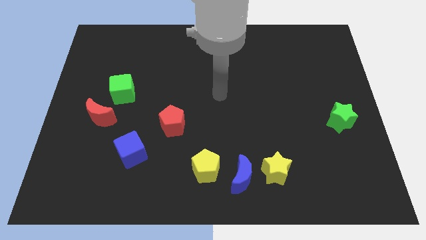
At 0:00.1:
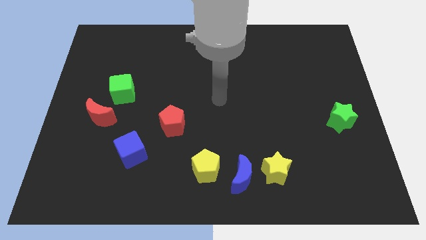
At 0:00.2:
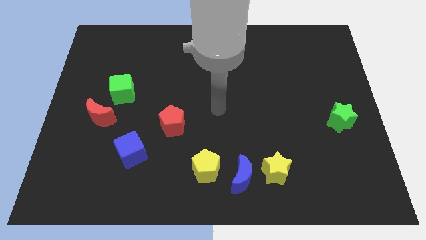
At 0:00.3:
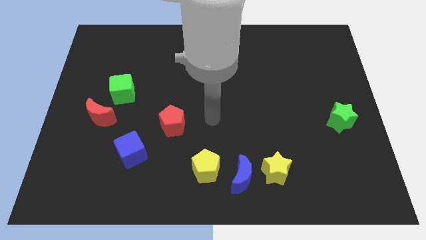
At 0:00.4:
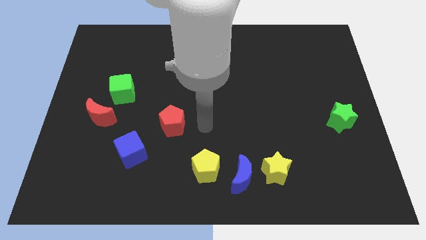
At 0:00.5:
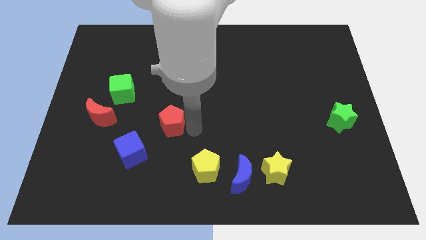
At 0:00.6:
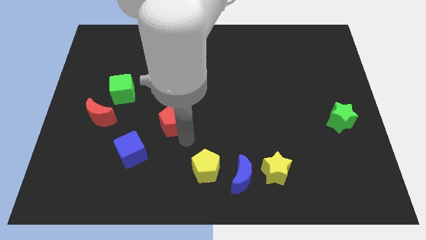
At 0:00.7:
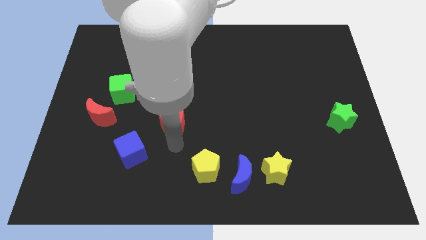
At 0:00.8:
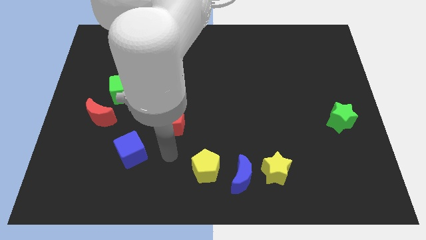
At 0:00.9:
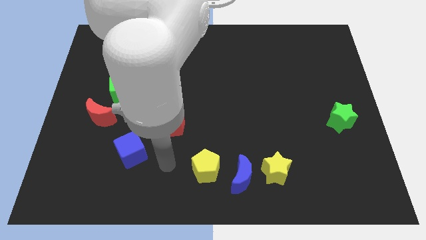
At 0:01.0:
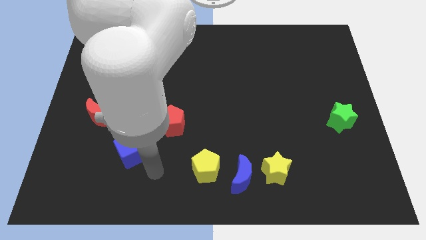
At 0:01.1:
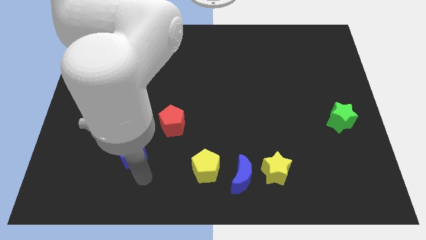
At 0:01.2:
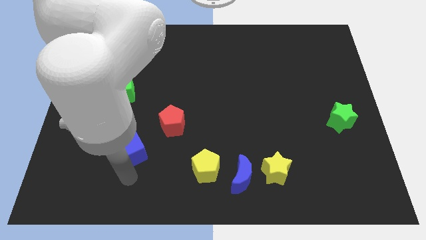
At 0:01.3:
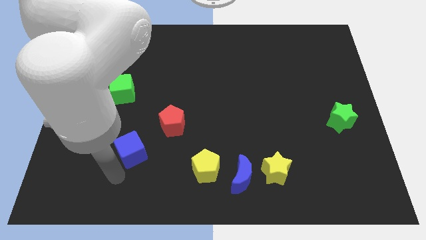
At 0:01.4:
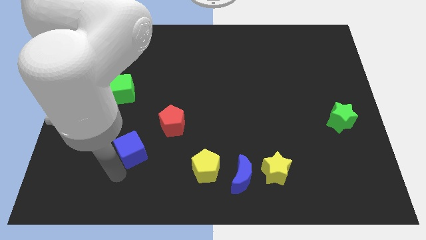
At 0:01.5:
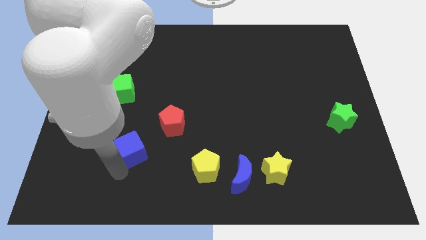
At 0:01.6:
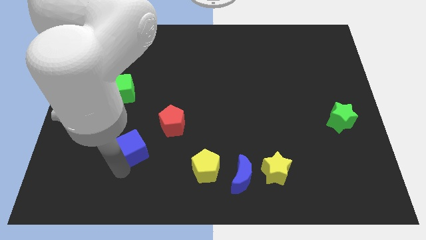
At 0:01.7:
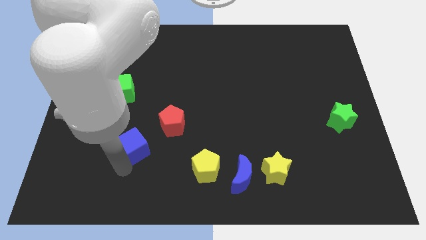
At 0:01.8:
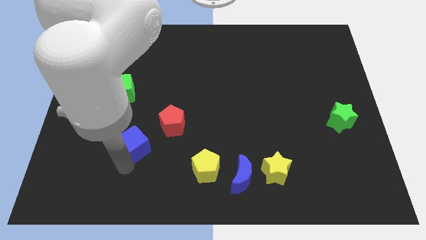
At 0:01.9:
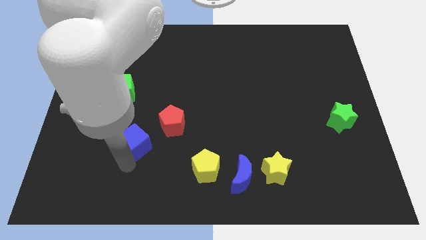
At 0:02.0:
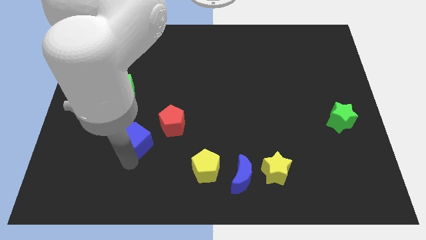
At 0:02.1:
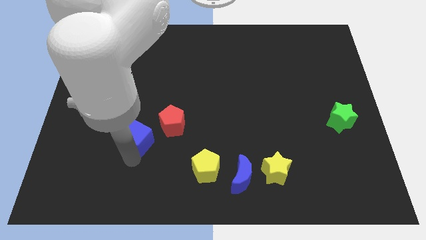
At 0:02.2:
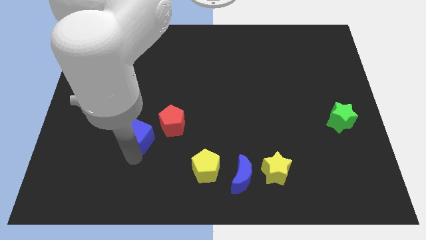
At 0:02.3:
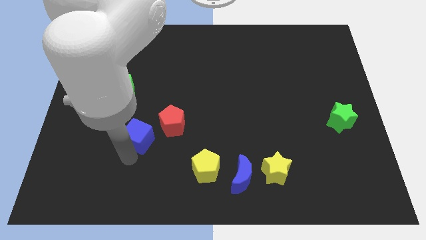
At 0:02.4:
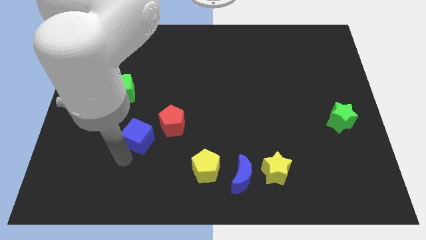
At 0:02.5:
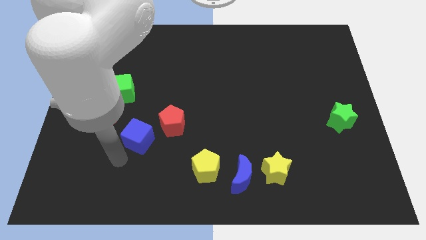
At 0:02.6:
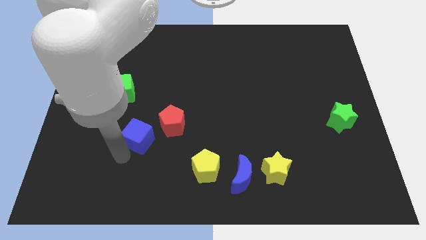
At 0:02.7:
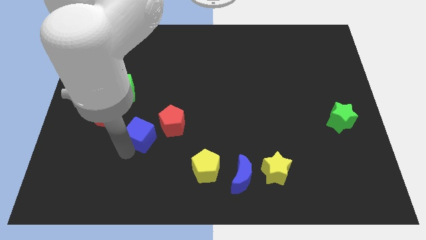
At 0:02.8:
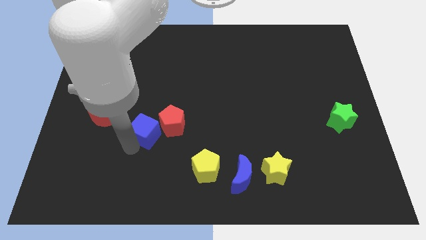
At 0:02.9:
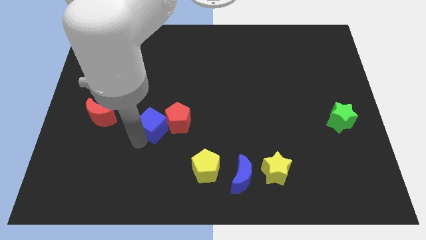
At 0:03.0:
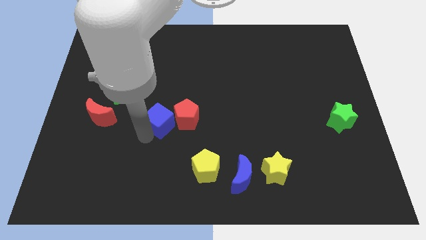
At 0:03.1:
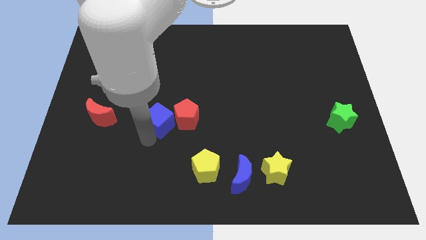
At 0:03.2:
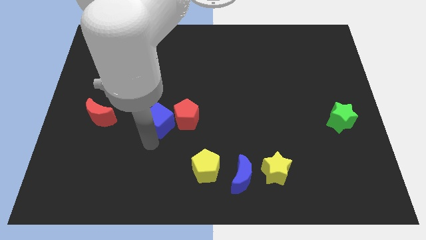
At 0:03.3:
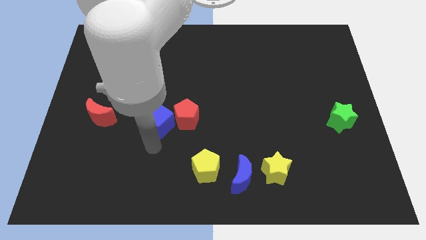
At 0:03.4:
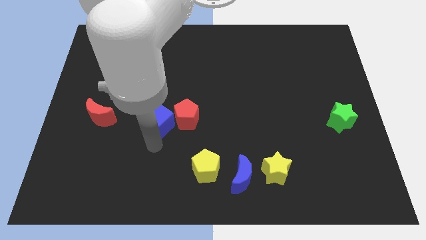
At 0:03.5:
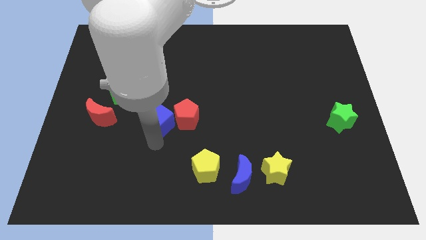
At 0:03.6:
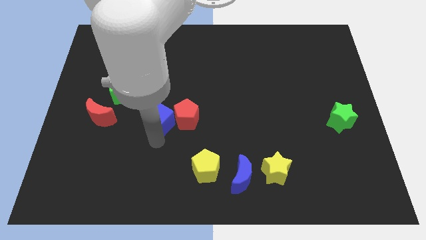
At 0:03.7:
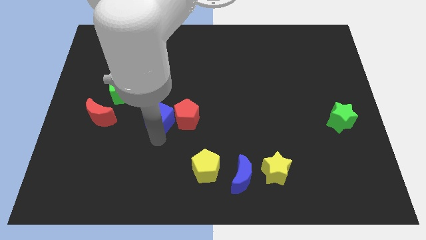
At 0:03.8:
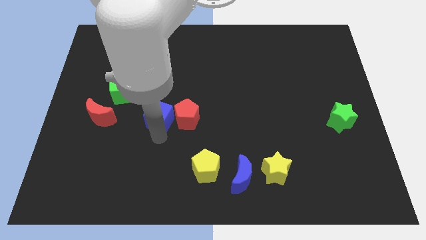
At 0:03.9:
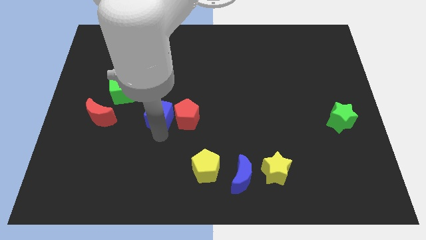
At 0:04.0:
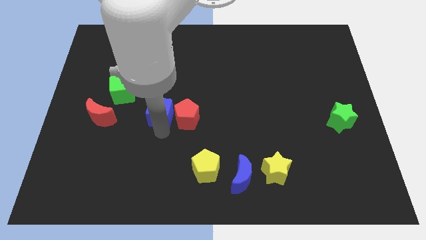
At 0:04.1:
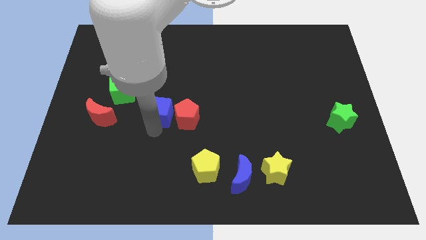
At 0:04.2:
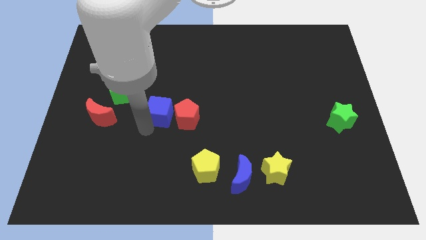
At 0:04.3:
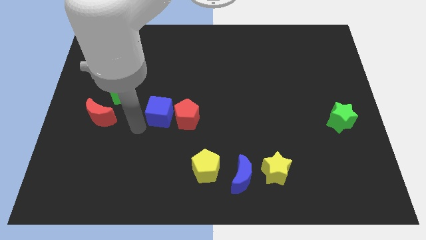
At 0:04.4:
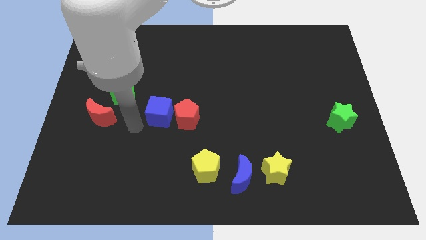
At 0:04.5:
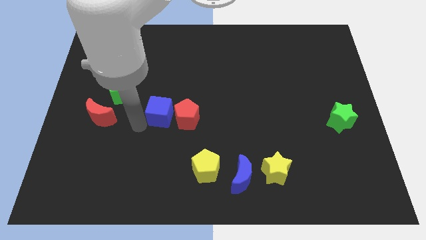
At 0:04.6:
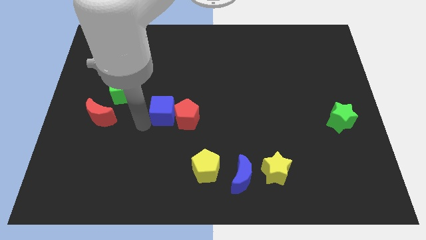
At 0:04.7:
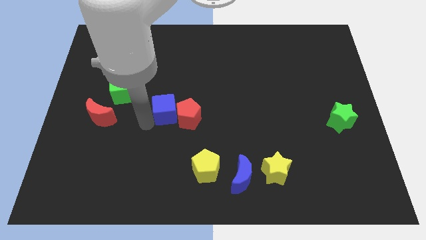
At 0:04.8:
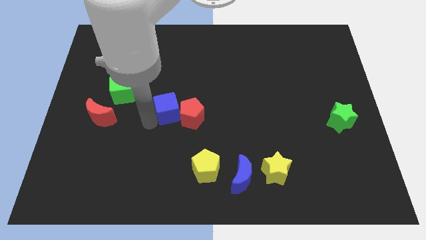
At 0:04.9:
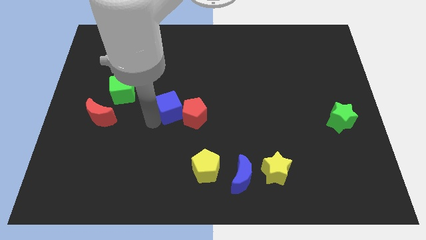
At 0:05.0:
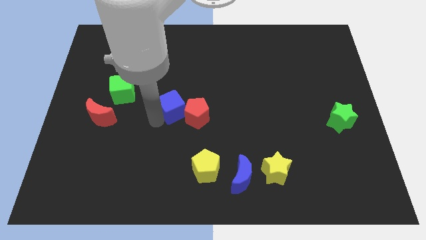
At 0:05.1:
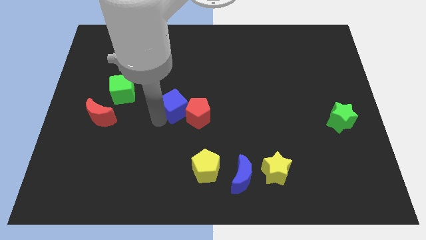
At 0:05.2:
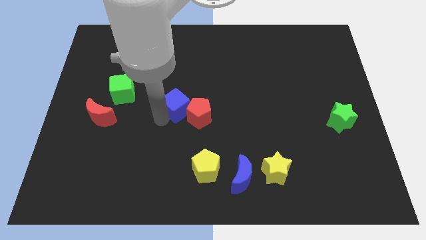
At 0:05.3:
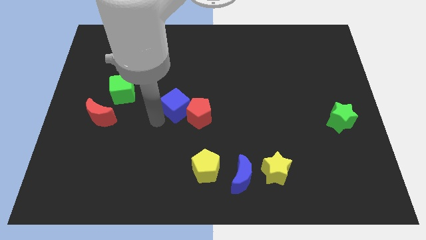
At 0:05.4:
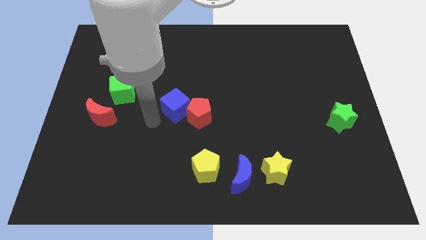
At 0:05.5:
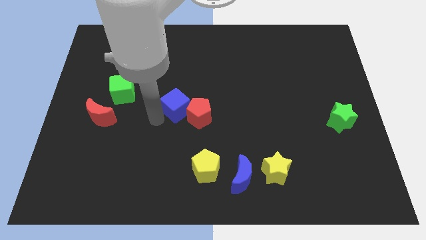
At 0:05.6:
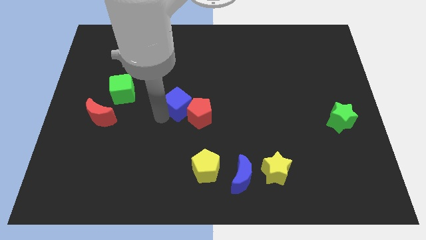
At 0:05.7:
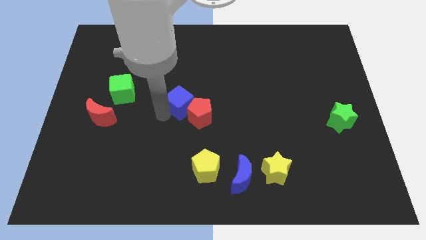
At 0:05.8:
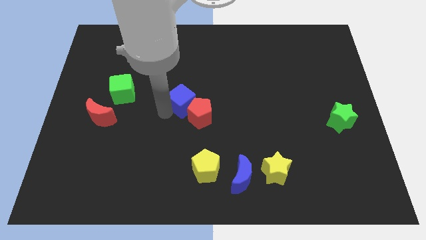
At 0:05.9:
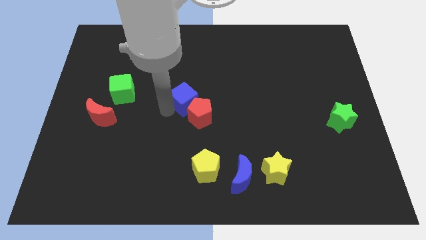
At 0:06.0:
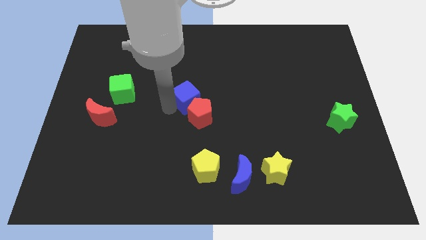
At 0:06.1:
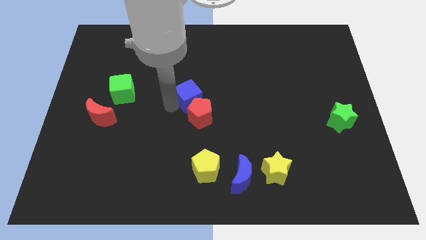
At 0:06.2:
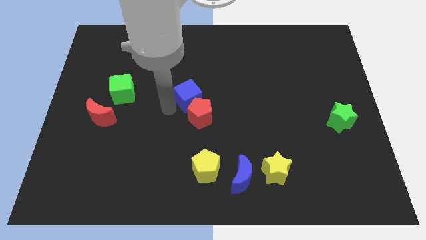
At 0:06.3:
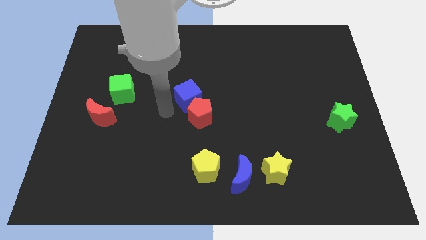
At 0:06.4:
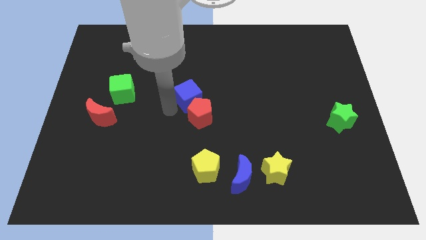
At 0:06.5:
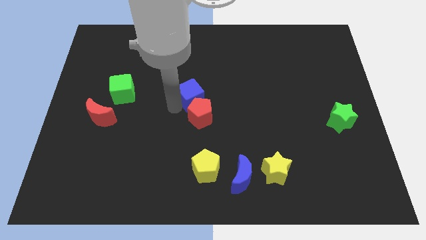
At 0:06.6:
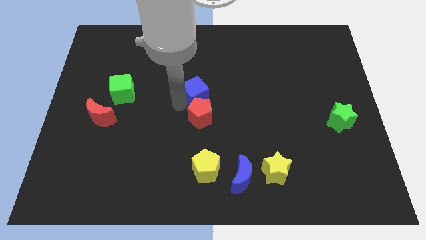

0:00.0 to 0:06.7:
push the blue cube upwards and to the right

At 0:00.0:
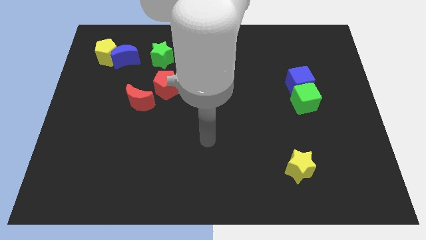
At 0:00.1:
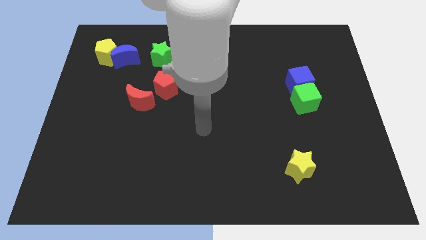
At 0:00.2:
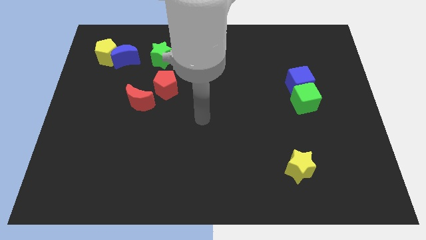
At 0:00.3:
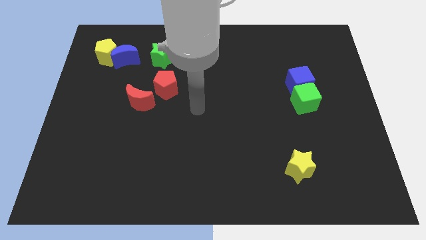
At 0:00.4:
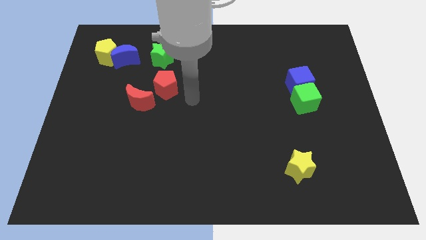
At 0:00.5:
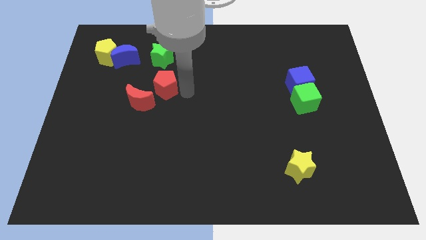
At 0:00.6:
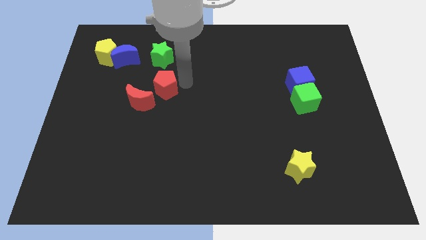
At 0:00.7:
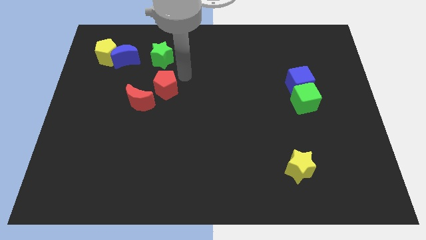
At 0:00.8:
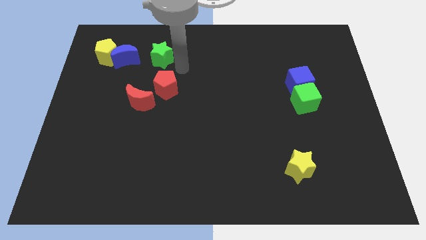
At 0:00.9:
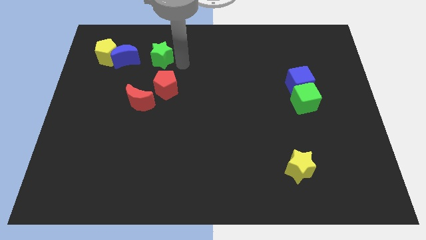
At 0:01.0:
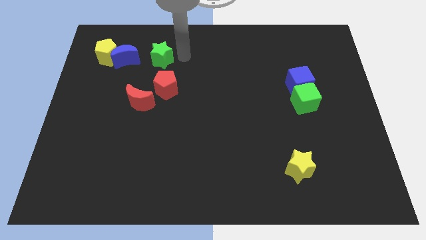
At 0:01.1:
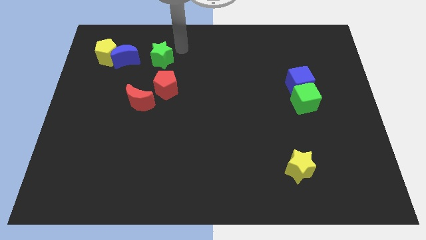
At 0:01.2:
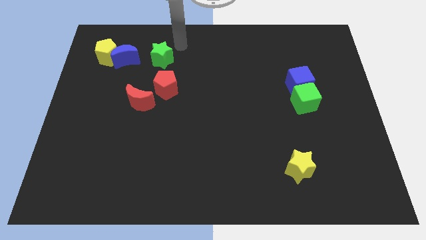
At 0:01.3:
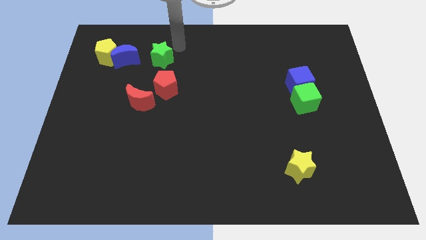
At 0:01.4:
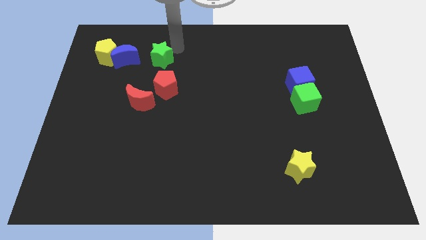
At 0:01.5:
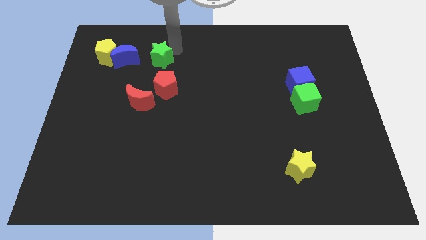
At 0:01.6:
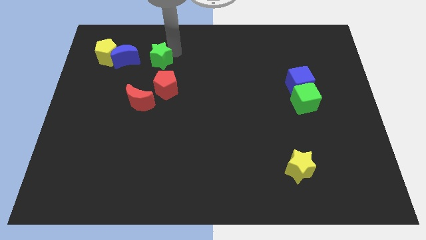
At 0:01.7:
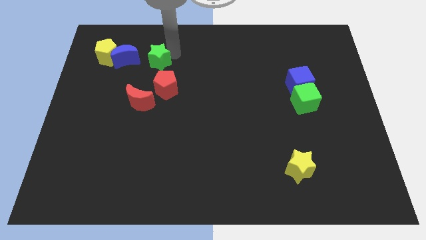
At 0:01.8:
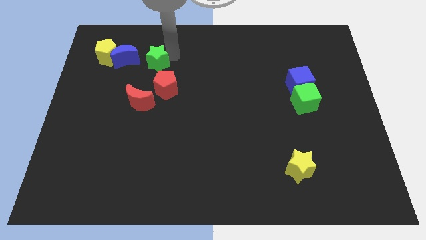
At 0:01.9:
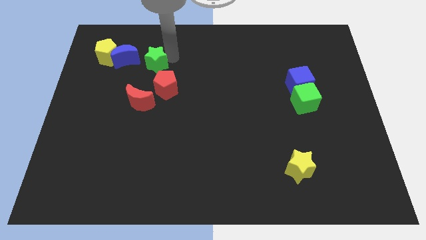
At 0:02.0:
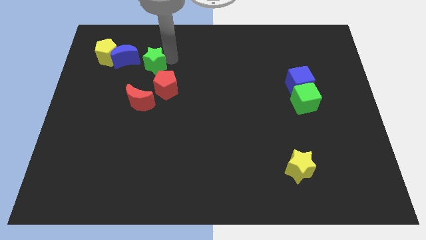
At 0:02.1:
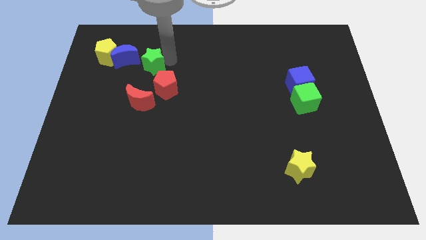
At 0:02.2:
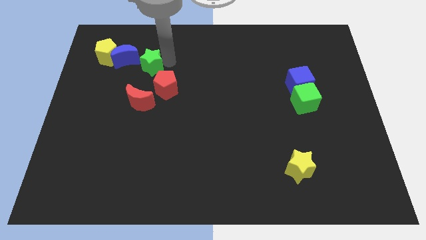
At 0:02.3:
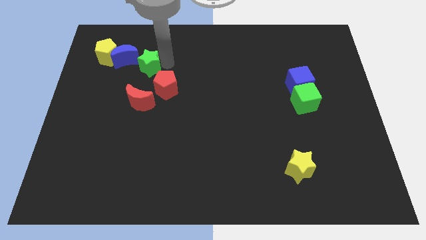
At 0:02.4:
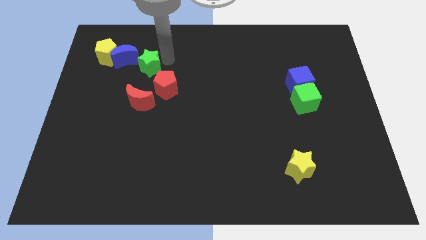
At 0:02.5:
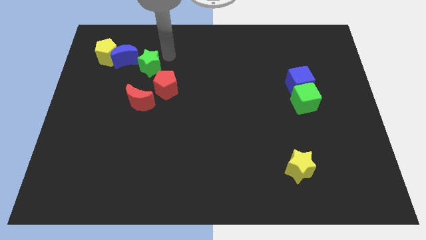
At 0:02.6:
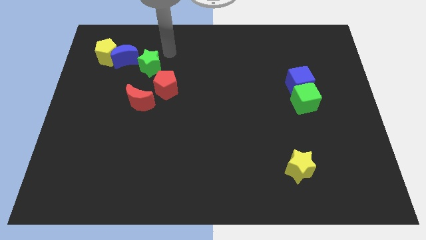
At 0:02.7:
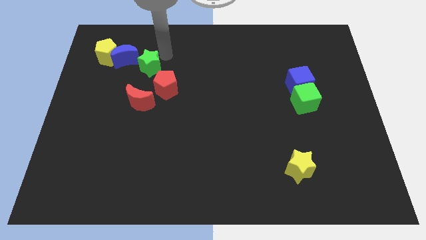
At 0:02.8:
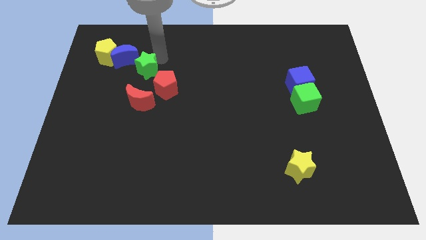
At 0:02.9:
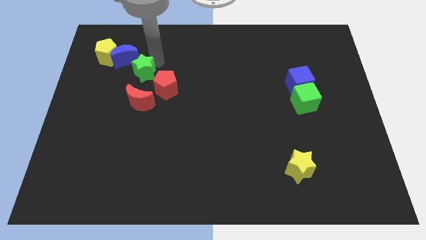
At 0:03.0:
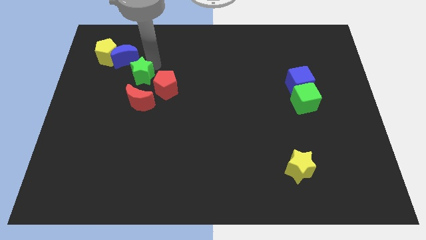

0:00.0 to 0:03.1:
push the green star somewhat diagonally downwards and left
